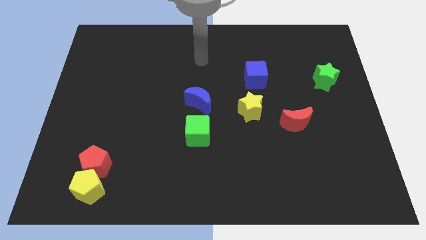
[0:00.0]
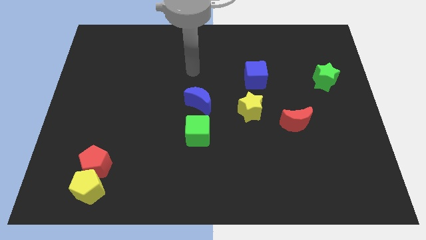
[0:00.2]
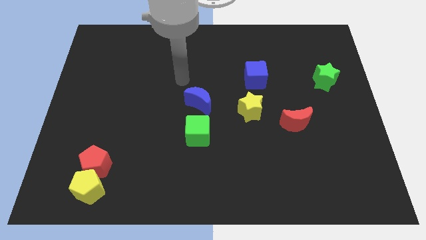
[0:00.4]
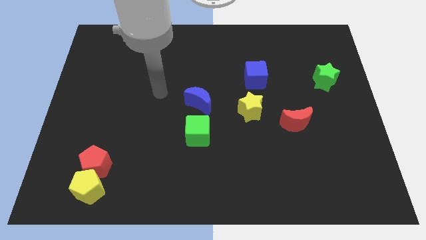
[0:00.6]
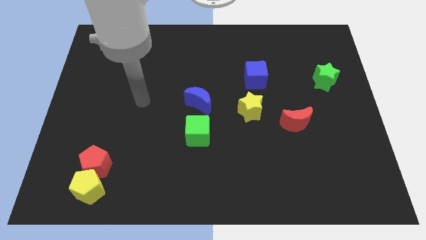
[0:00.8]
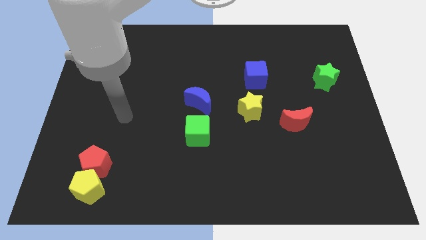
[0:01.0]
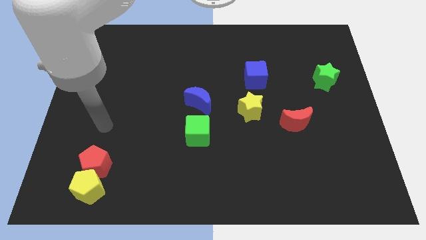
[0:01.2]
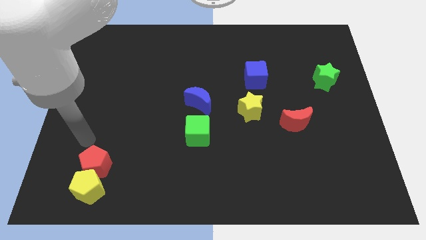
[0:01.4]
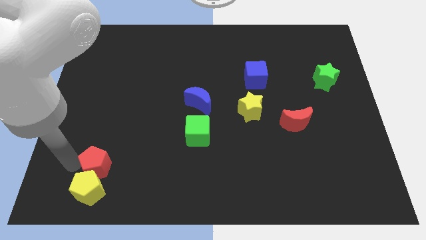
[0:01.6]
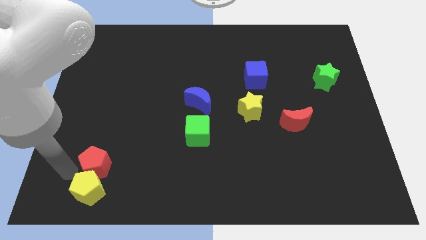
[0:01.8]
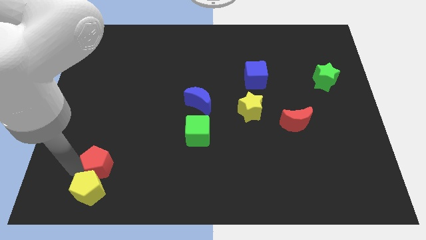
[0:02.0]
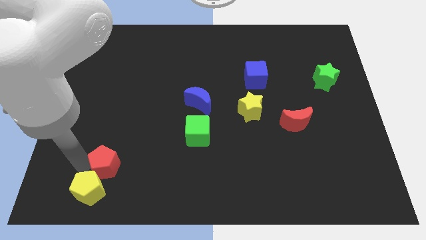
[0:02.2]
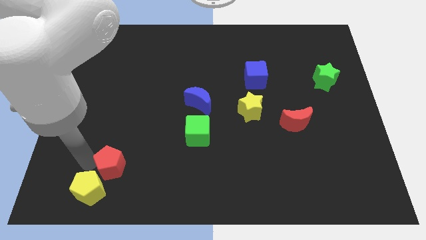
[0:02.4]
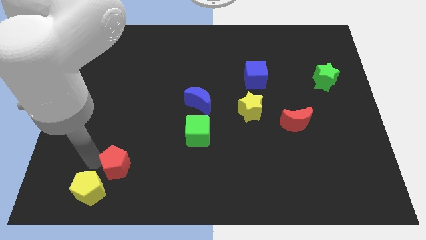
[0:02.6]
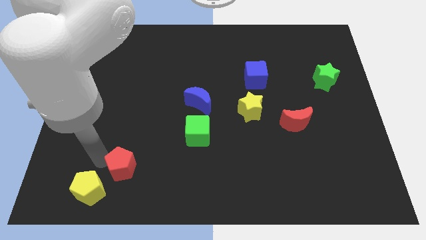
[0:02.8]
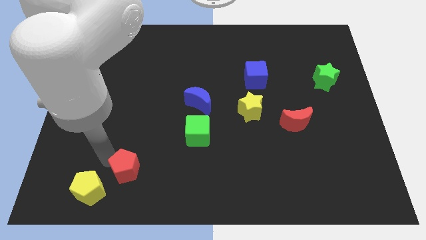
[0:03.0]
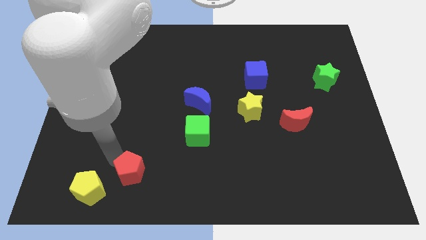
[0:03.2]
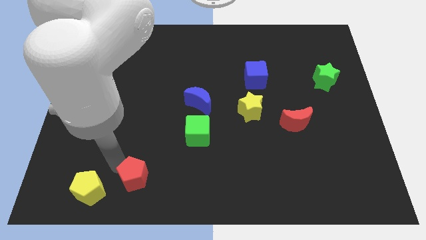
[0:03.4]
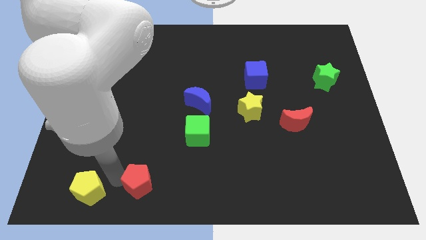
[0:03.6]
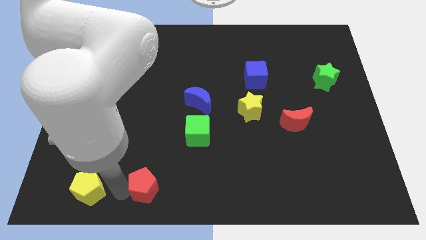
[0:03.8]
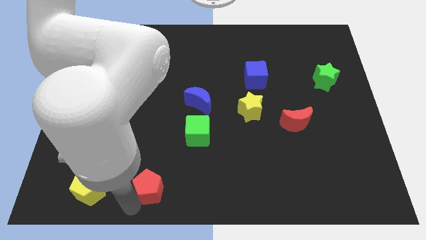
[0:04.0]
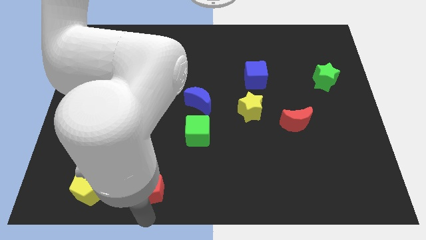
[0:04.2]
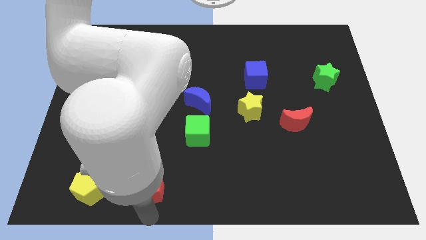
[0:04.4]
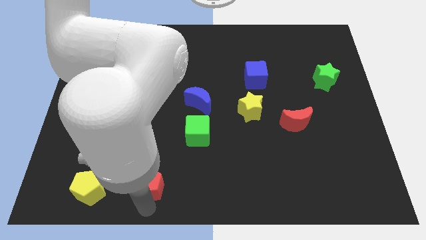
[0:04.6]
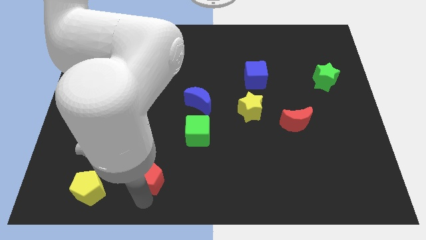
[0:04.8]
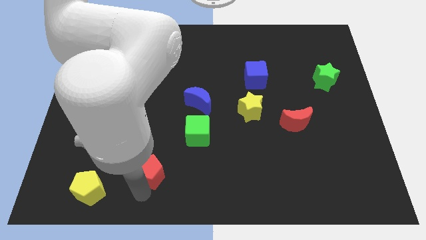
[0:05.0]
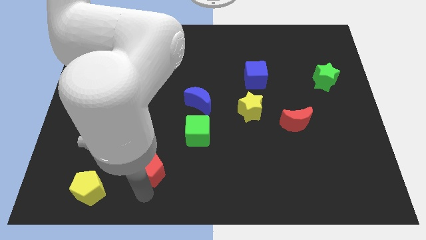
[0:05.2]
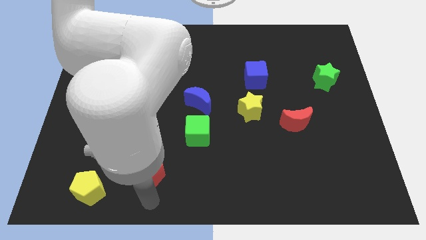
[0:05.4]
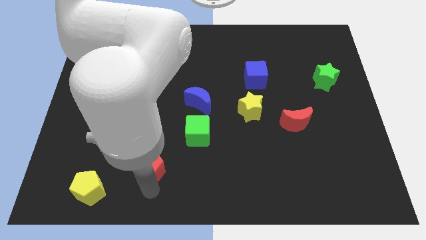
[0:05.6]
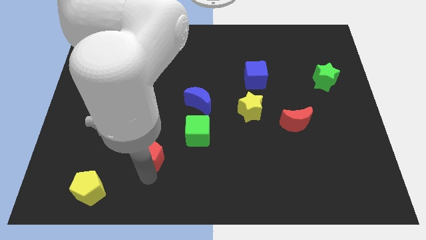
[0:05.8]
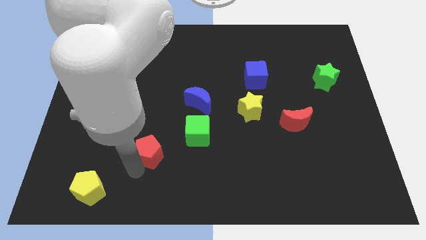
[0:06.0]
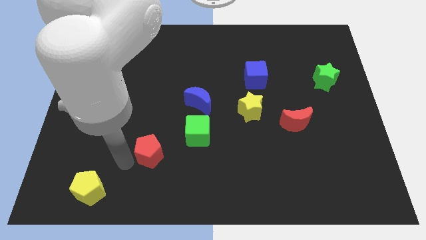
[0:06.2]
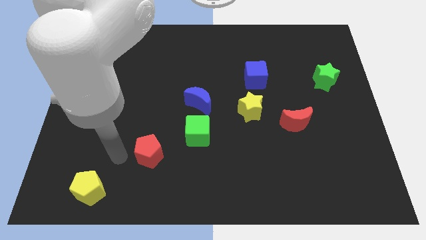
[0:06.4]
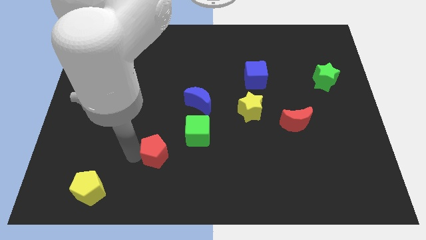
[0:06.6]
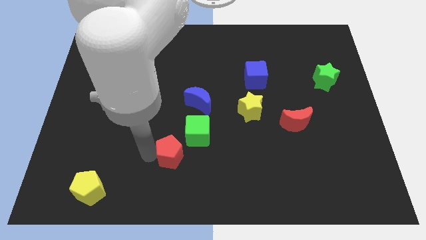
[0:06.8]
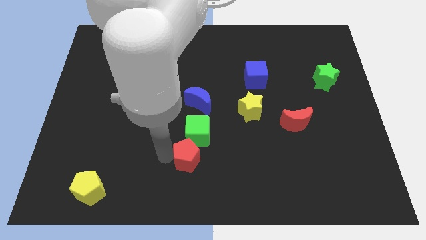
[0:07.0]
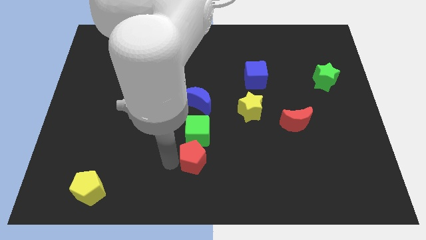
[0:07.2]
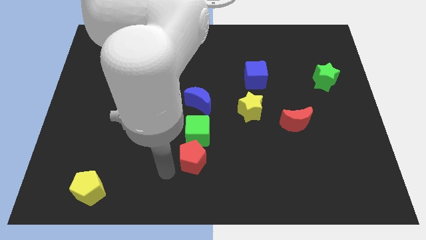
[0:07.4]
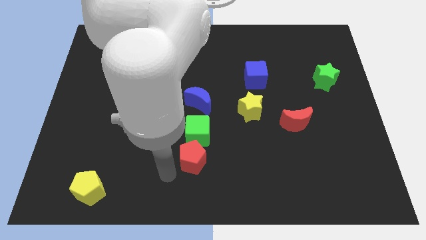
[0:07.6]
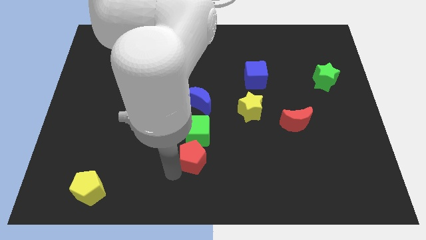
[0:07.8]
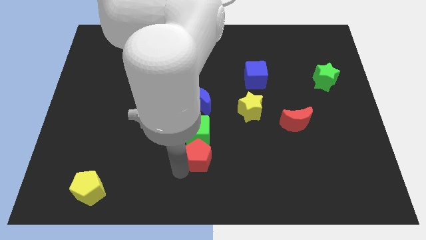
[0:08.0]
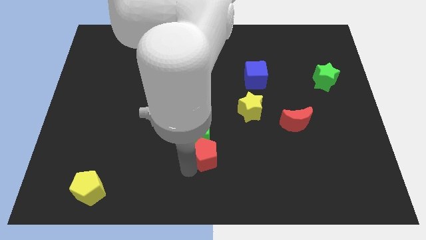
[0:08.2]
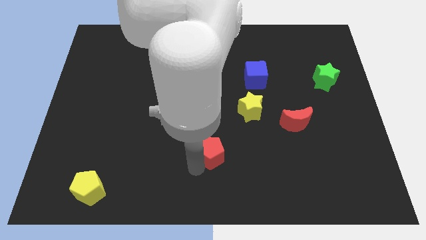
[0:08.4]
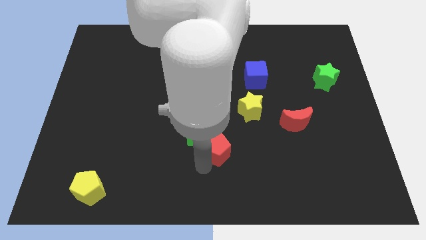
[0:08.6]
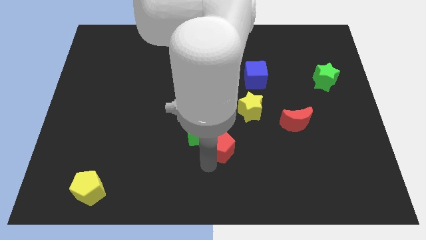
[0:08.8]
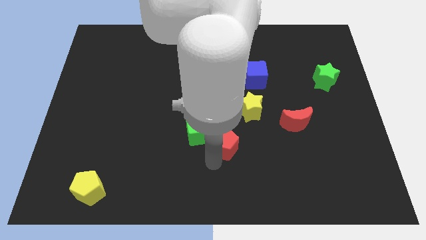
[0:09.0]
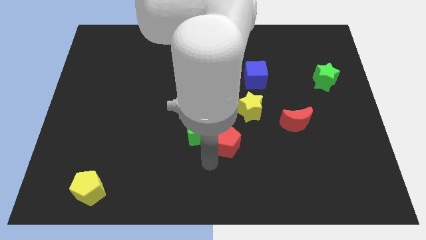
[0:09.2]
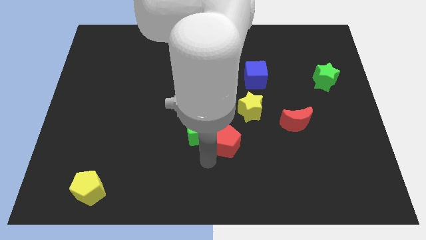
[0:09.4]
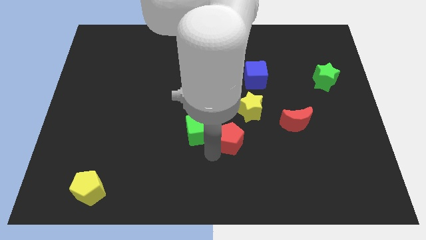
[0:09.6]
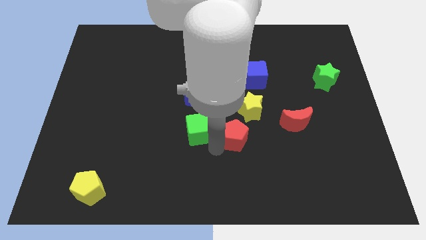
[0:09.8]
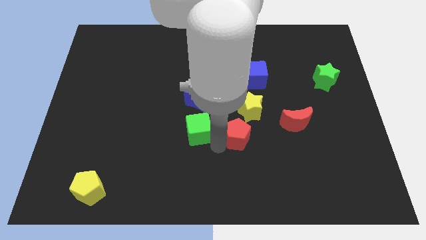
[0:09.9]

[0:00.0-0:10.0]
move the red pentagon just left of the red moon

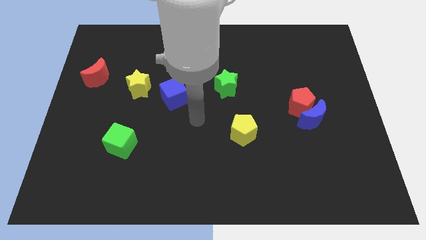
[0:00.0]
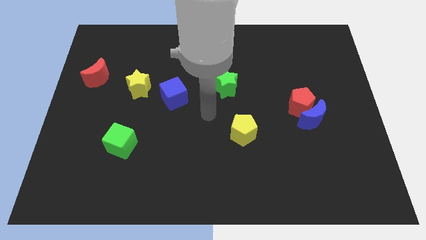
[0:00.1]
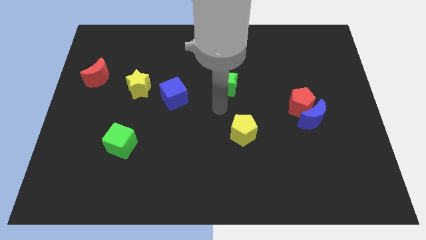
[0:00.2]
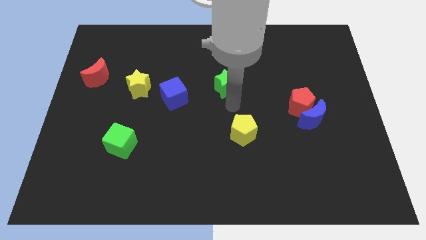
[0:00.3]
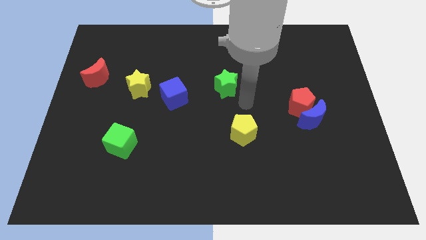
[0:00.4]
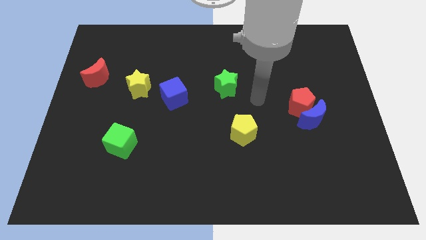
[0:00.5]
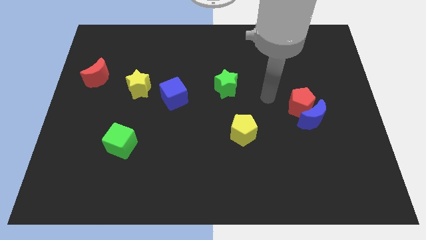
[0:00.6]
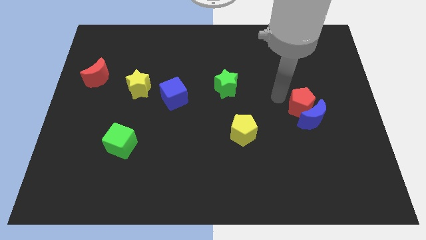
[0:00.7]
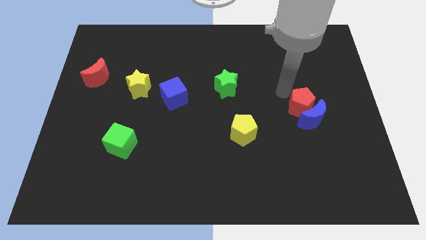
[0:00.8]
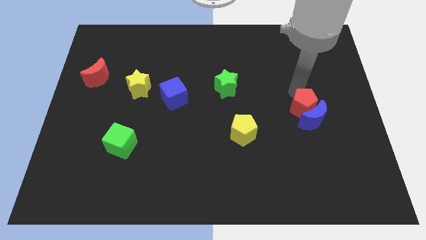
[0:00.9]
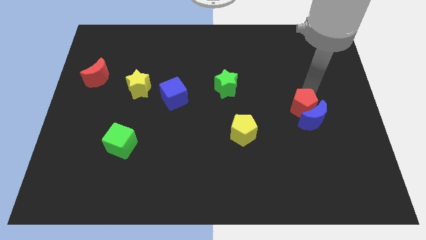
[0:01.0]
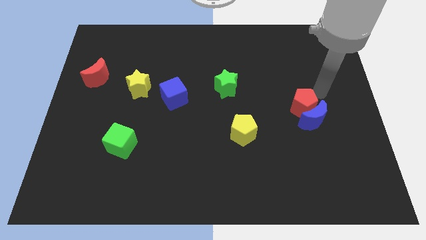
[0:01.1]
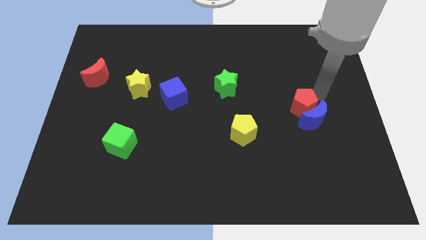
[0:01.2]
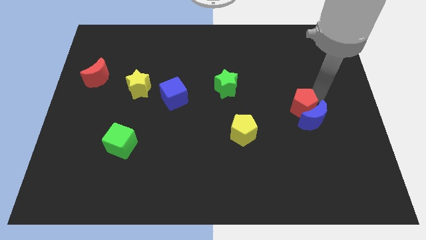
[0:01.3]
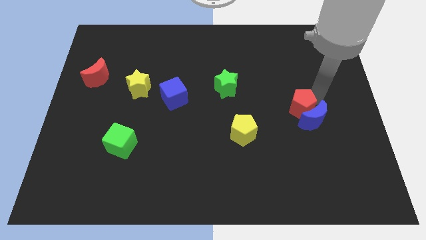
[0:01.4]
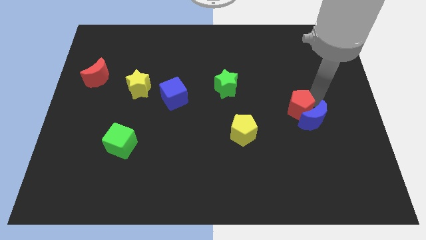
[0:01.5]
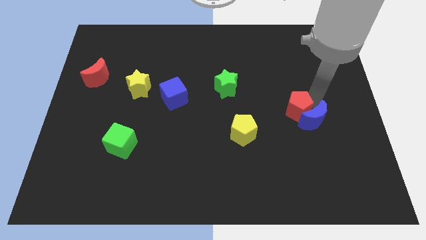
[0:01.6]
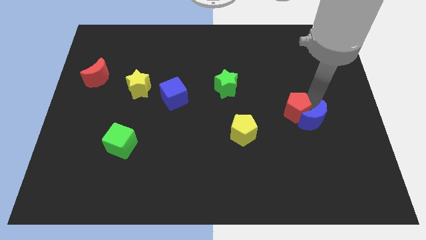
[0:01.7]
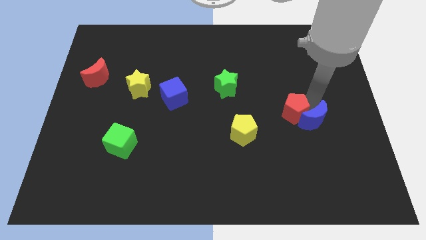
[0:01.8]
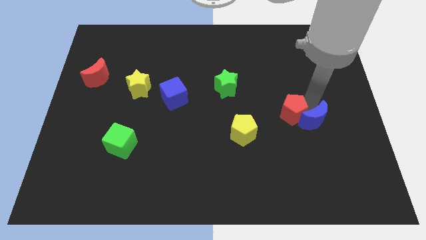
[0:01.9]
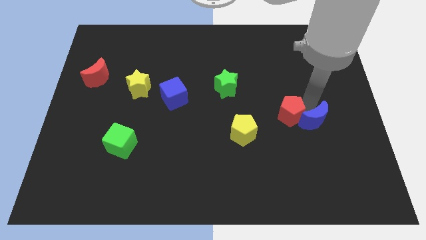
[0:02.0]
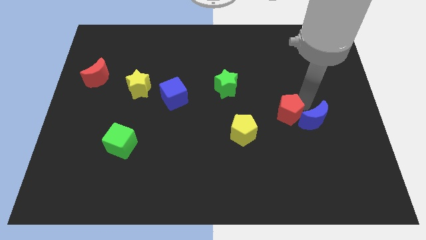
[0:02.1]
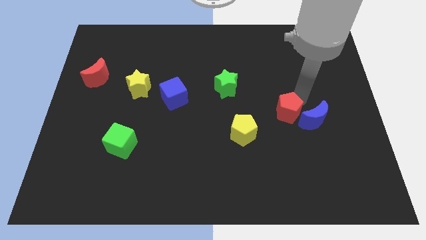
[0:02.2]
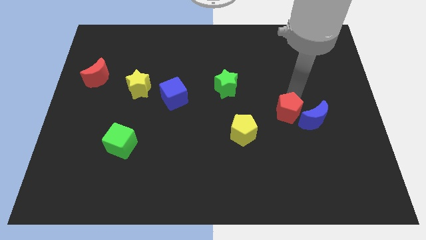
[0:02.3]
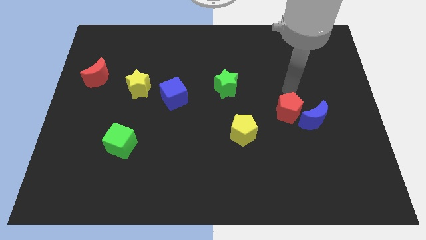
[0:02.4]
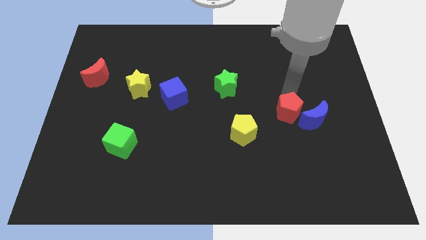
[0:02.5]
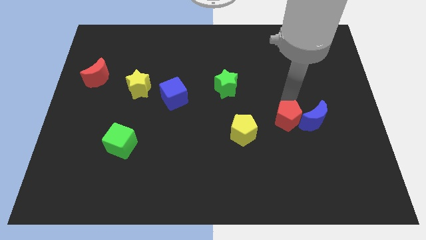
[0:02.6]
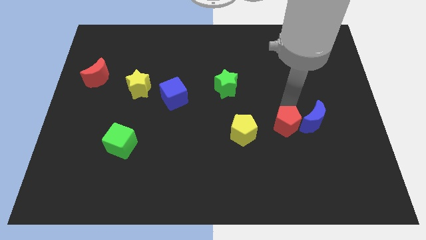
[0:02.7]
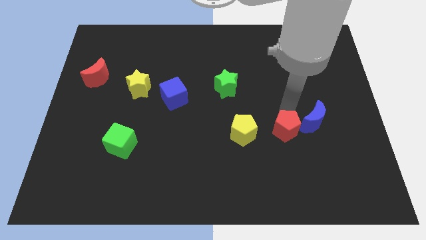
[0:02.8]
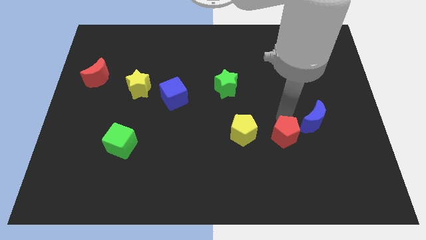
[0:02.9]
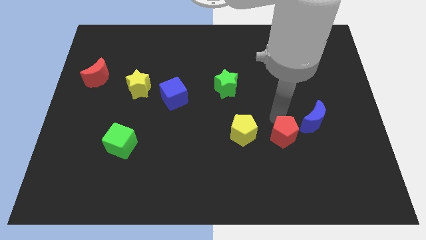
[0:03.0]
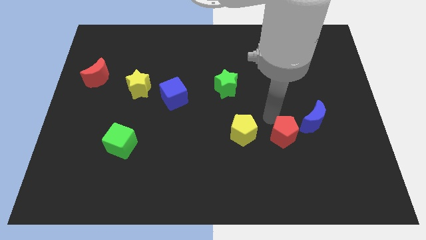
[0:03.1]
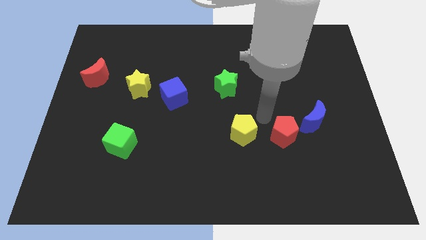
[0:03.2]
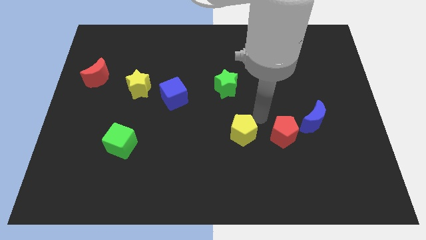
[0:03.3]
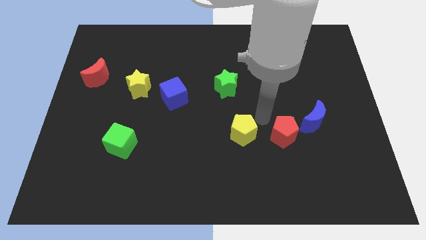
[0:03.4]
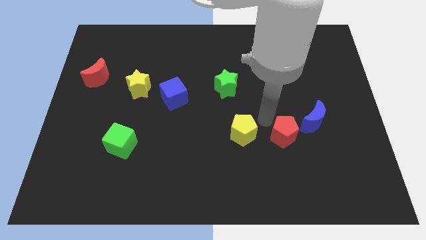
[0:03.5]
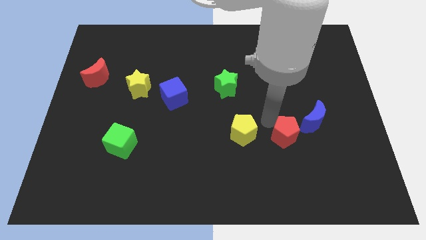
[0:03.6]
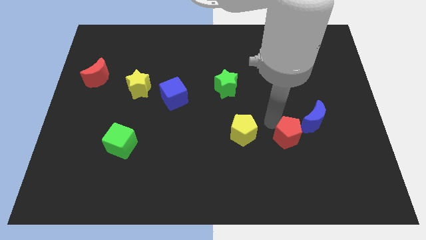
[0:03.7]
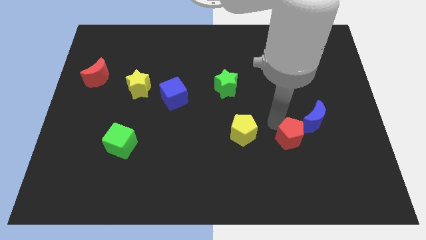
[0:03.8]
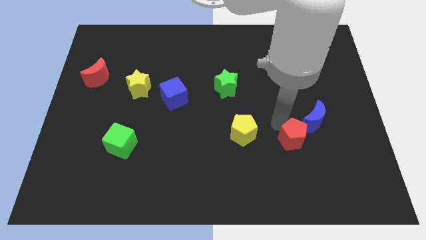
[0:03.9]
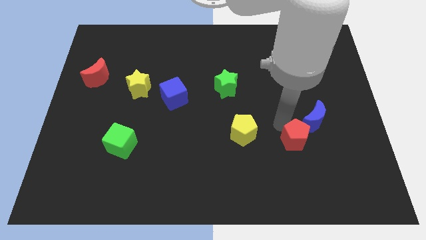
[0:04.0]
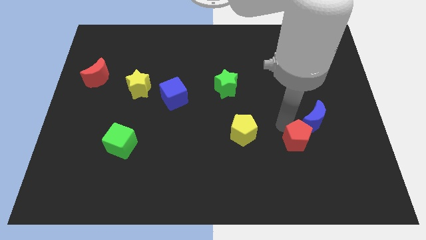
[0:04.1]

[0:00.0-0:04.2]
slide the red pentagon below the blue moon
